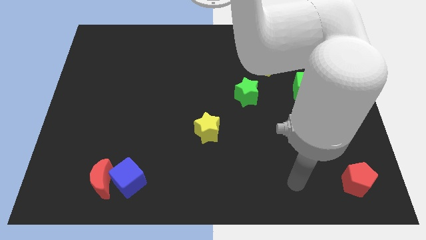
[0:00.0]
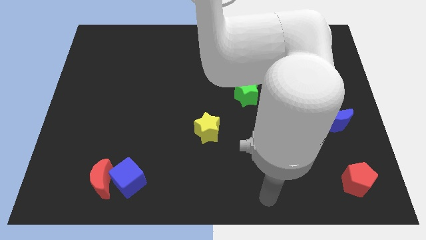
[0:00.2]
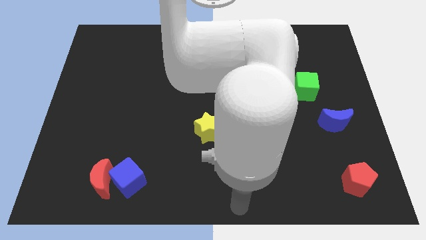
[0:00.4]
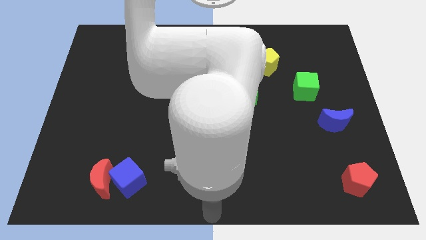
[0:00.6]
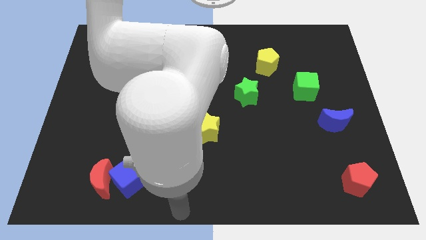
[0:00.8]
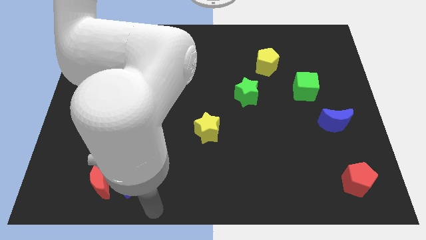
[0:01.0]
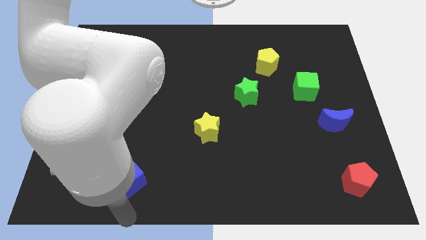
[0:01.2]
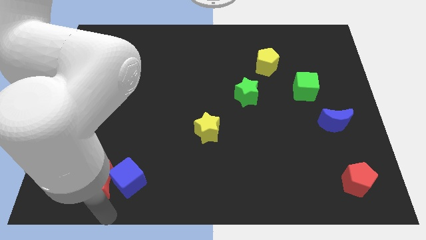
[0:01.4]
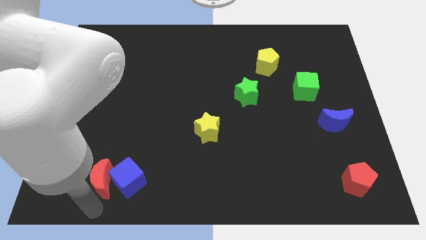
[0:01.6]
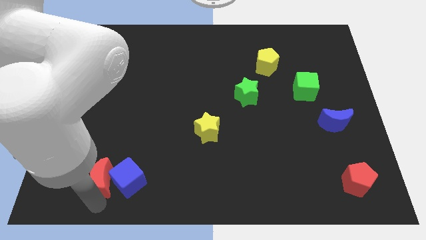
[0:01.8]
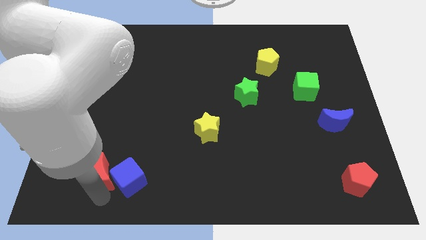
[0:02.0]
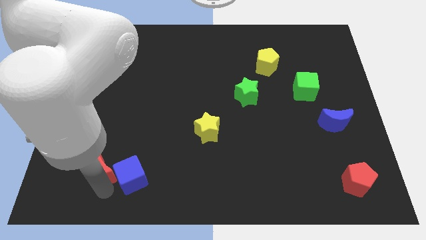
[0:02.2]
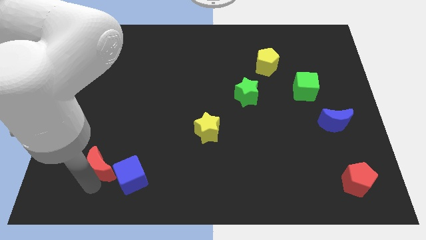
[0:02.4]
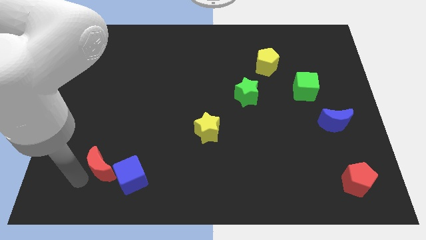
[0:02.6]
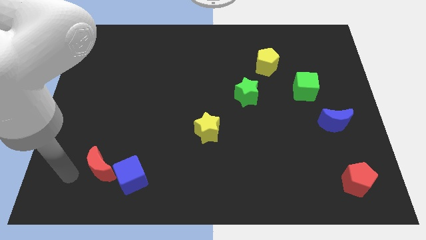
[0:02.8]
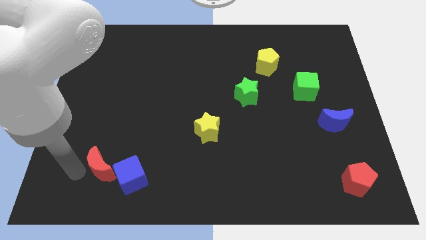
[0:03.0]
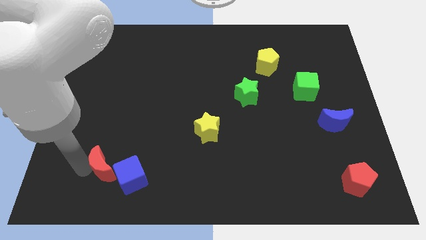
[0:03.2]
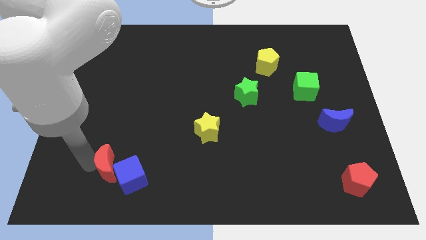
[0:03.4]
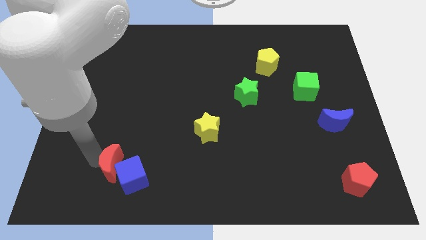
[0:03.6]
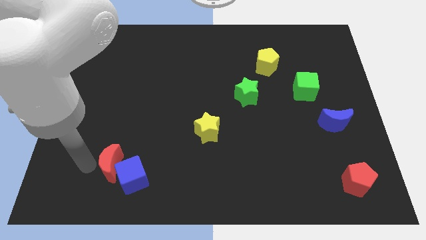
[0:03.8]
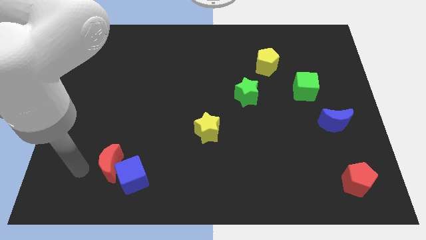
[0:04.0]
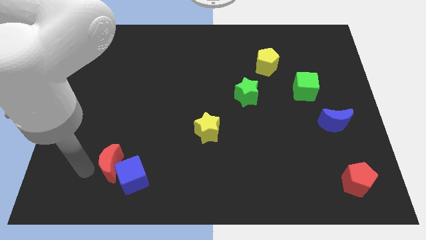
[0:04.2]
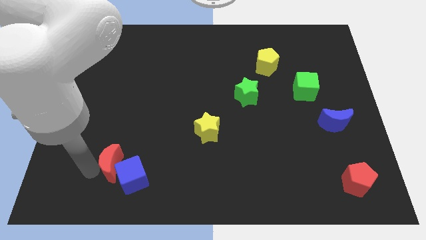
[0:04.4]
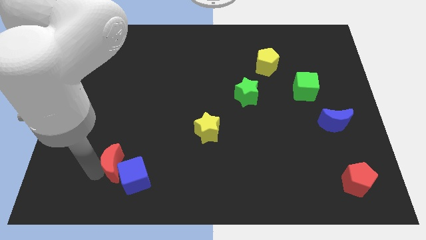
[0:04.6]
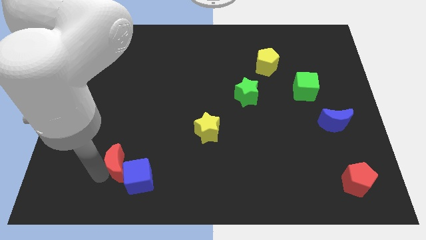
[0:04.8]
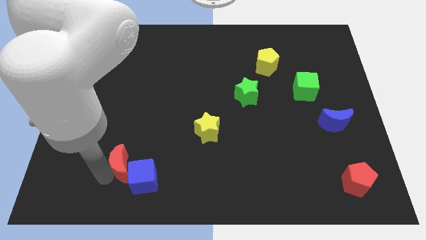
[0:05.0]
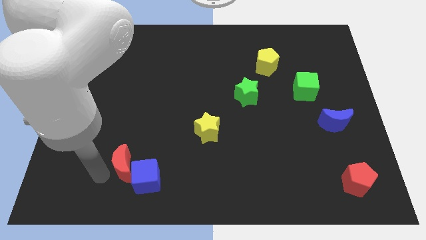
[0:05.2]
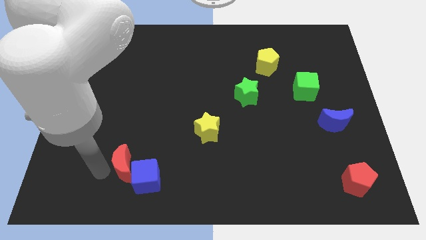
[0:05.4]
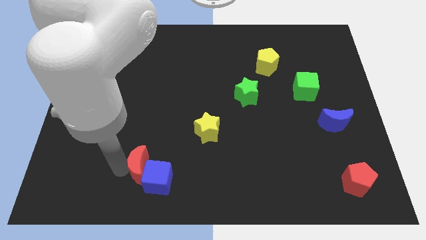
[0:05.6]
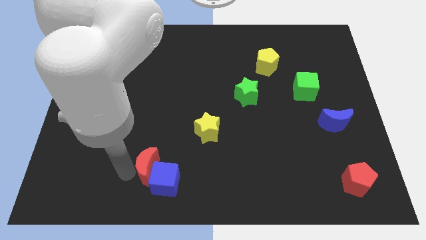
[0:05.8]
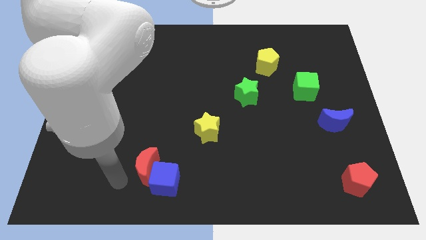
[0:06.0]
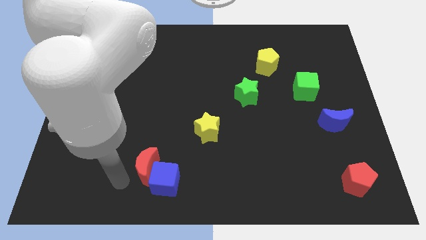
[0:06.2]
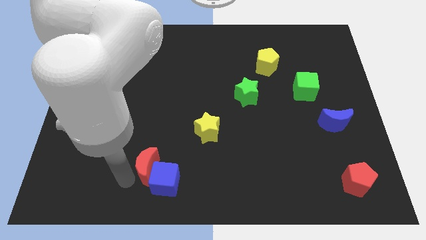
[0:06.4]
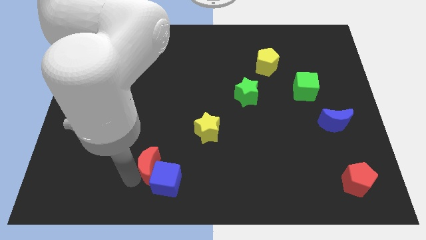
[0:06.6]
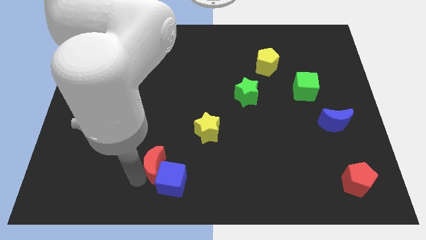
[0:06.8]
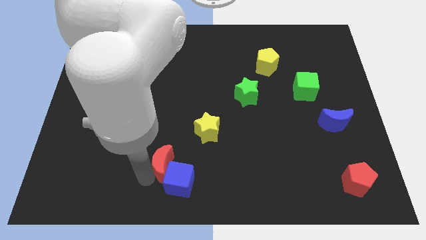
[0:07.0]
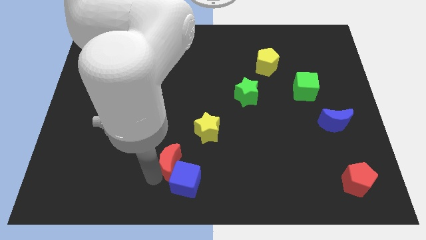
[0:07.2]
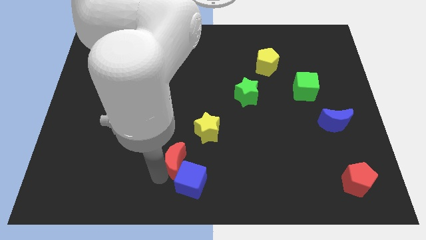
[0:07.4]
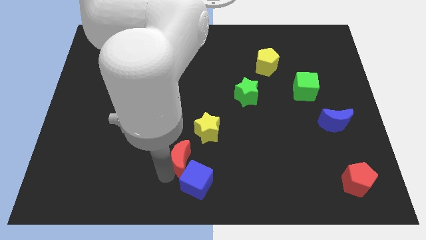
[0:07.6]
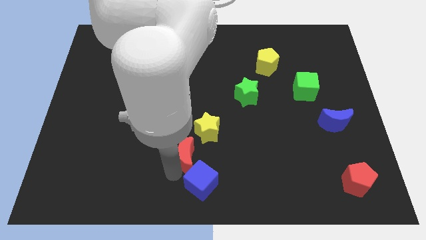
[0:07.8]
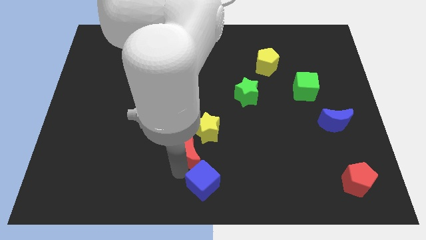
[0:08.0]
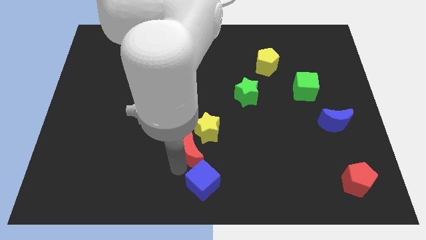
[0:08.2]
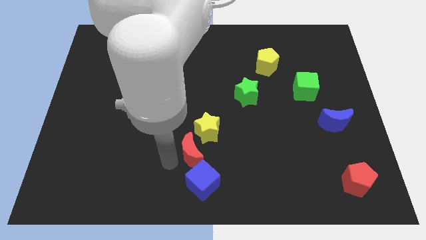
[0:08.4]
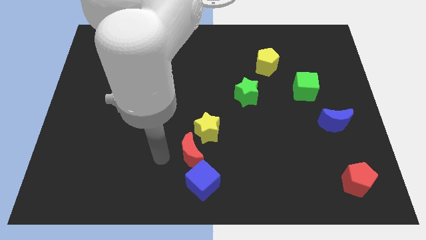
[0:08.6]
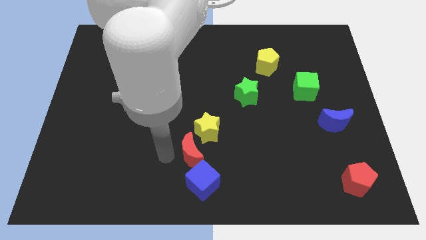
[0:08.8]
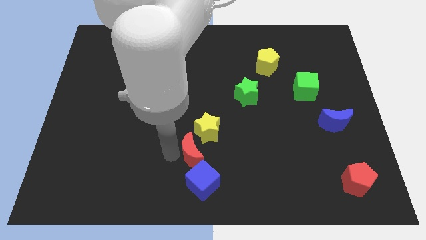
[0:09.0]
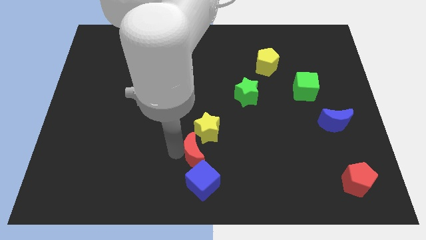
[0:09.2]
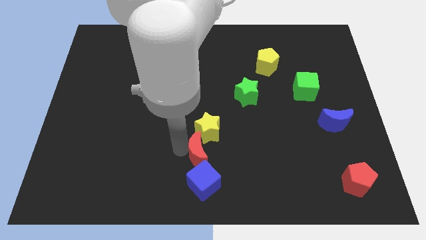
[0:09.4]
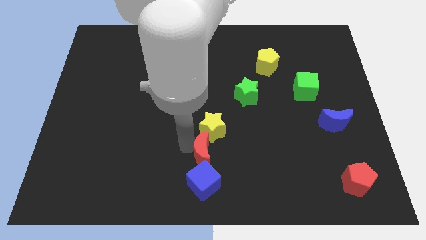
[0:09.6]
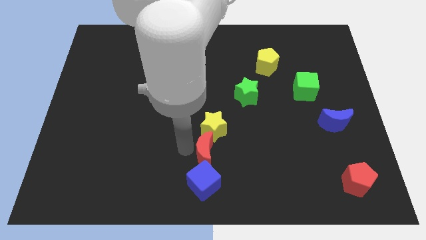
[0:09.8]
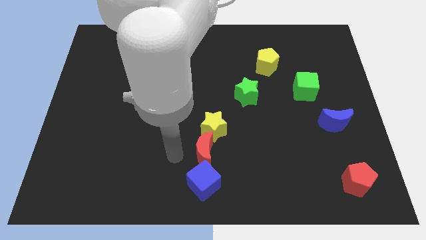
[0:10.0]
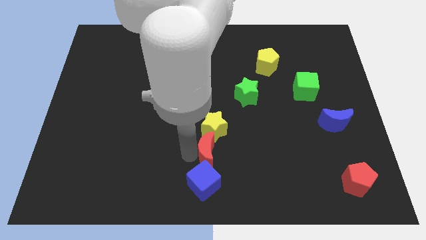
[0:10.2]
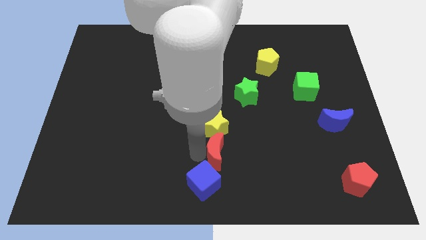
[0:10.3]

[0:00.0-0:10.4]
put the red moon diagonally down and to the right of the yellow star

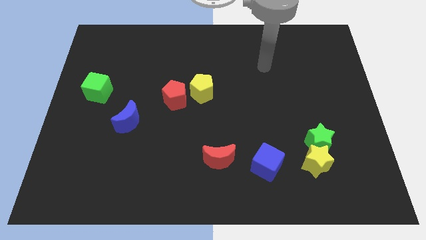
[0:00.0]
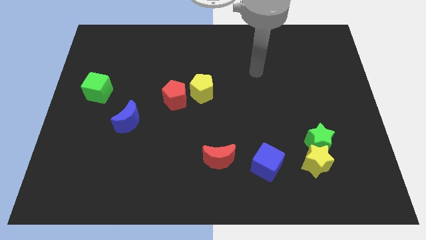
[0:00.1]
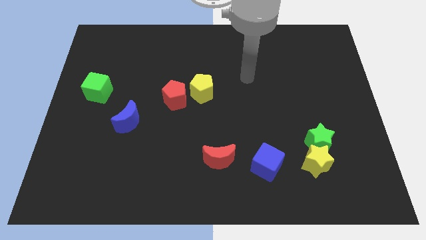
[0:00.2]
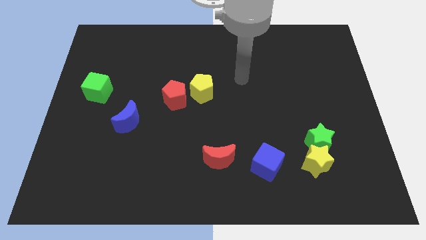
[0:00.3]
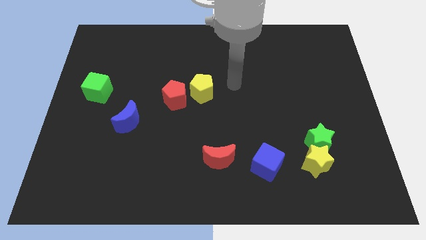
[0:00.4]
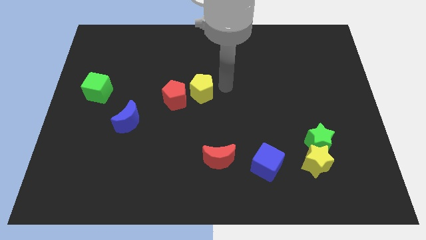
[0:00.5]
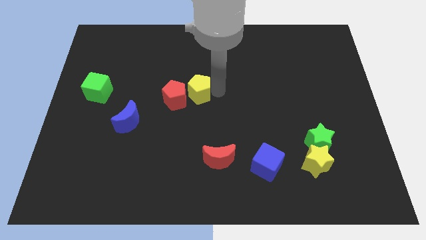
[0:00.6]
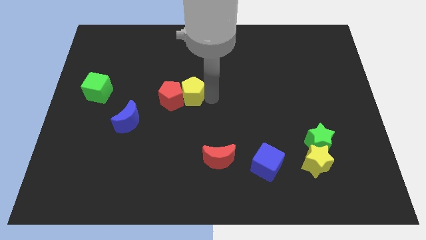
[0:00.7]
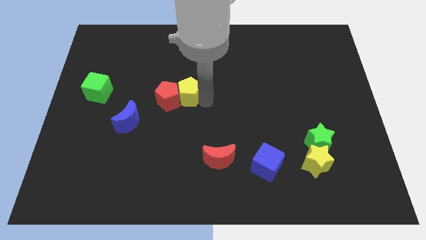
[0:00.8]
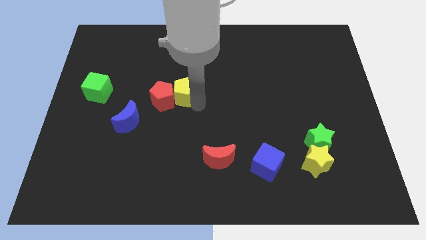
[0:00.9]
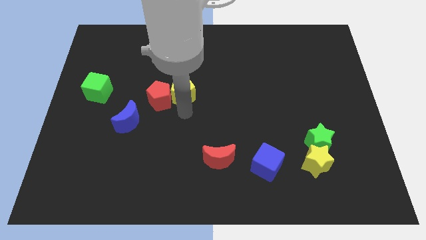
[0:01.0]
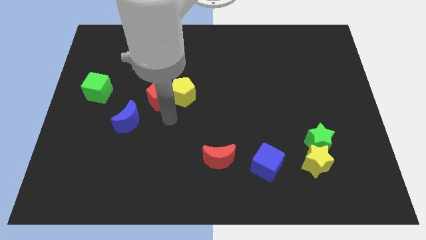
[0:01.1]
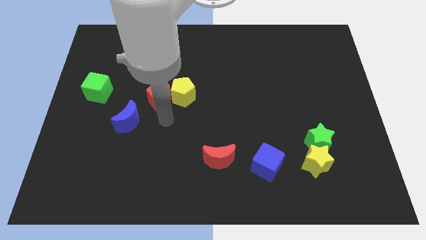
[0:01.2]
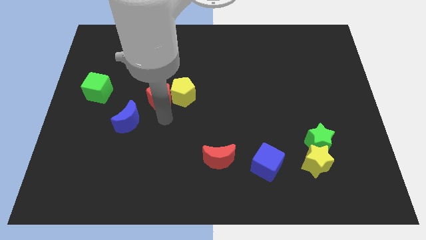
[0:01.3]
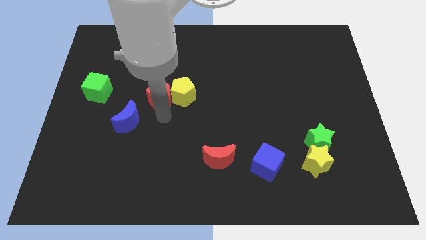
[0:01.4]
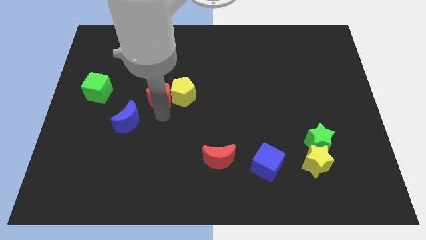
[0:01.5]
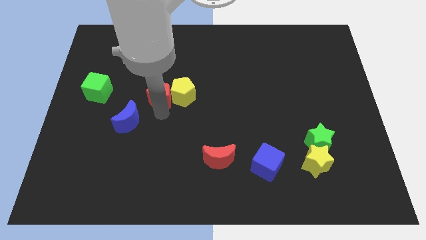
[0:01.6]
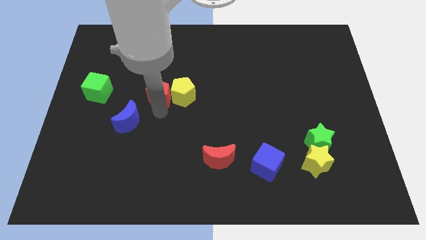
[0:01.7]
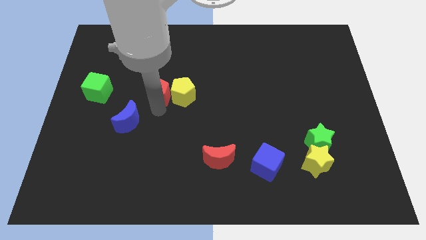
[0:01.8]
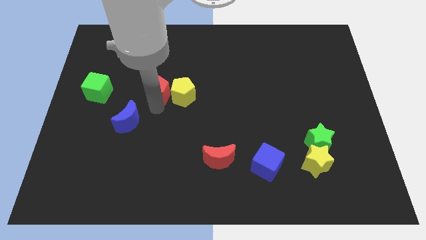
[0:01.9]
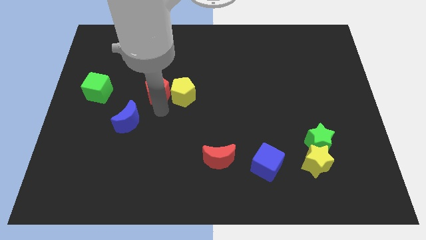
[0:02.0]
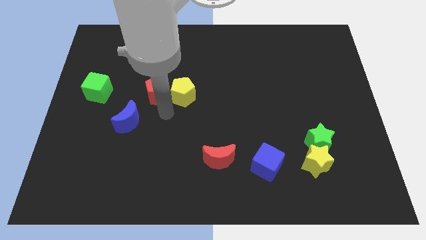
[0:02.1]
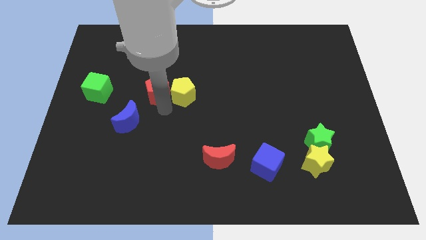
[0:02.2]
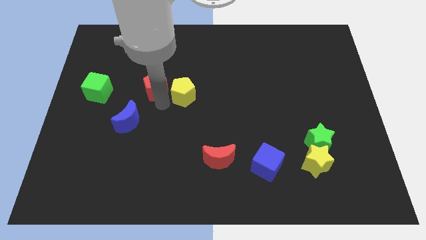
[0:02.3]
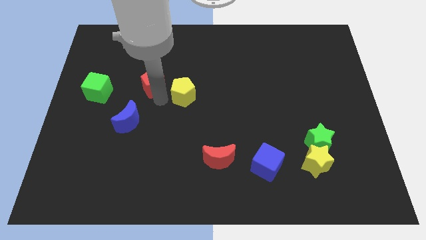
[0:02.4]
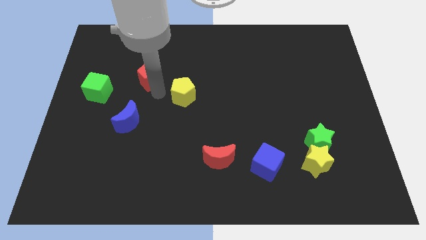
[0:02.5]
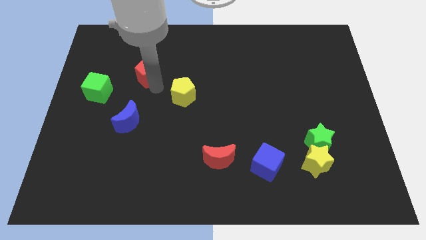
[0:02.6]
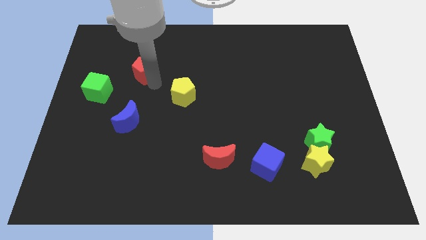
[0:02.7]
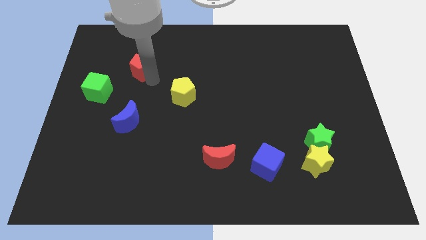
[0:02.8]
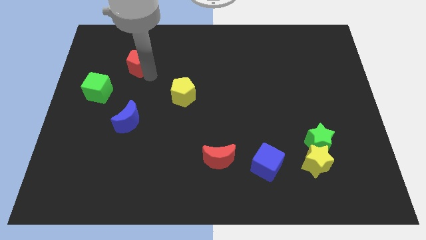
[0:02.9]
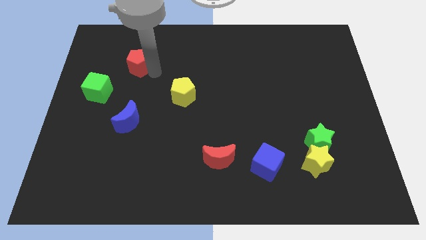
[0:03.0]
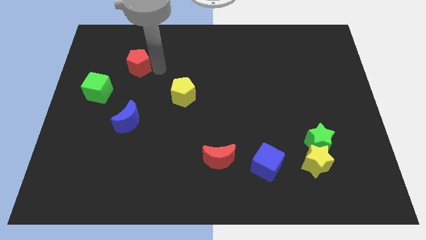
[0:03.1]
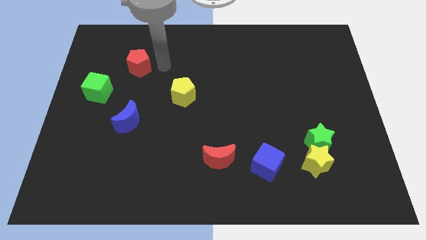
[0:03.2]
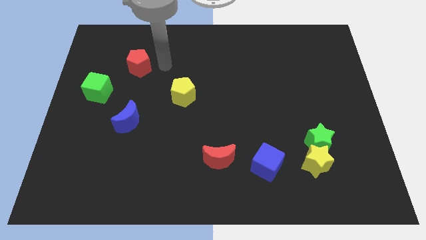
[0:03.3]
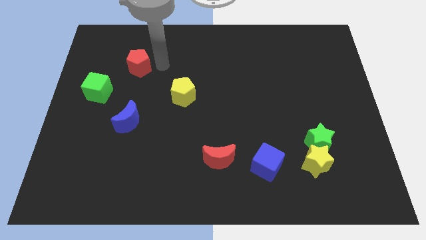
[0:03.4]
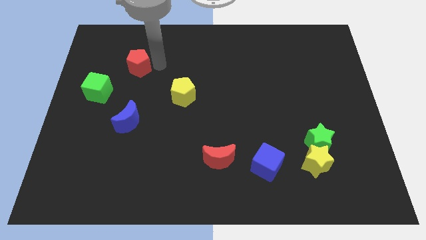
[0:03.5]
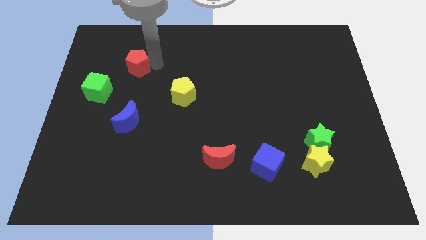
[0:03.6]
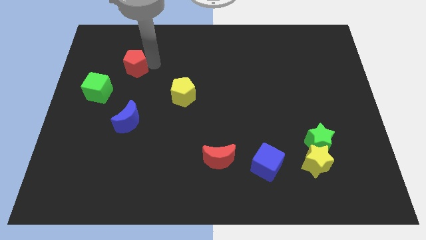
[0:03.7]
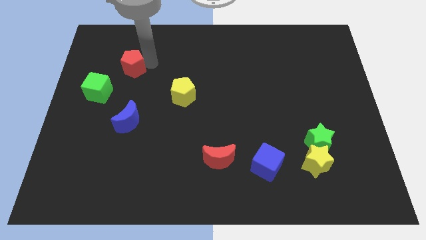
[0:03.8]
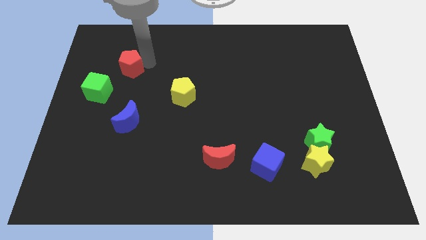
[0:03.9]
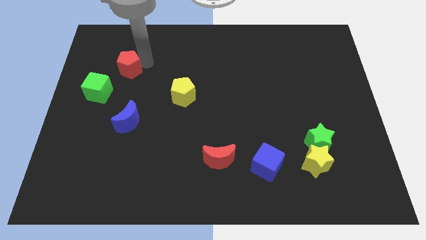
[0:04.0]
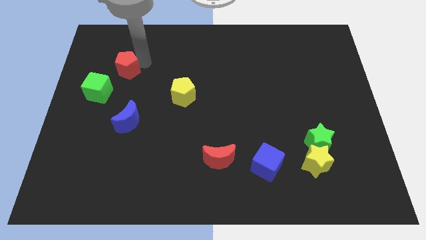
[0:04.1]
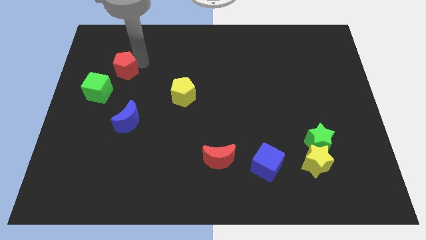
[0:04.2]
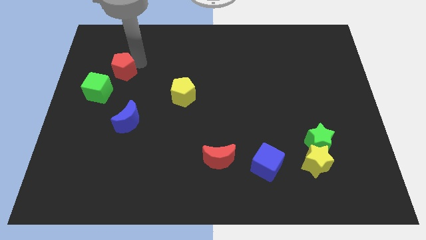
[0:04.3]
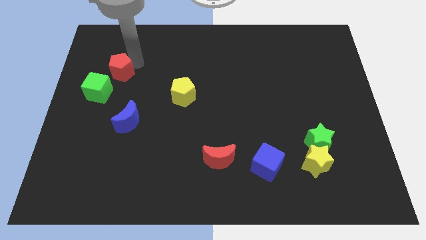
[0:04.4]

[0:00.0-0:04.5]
push the red pentagon above the green cube
